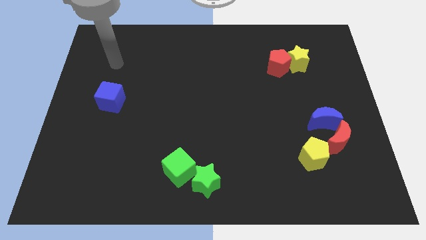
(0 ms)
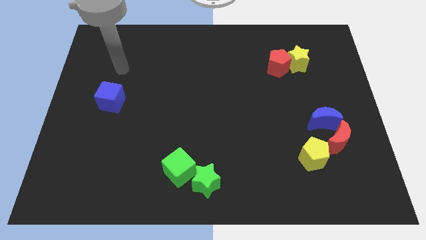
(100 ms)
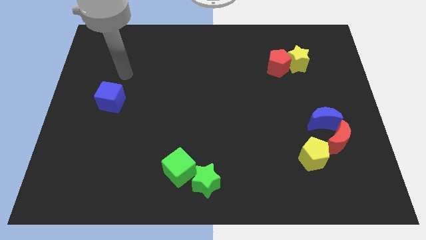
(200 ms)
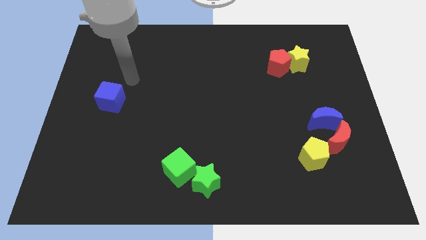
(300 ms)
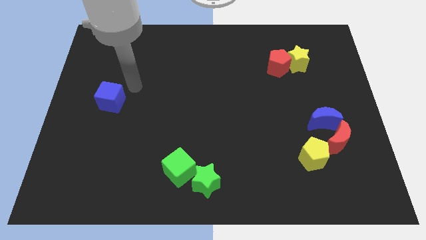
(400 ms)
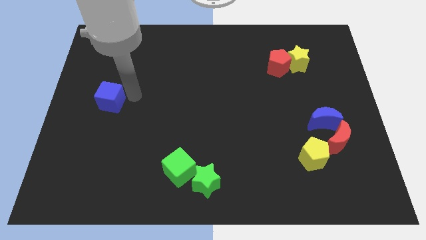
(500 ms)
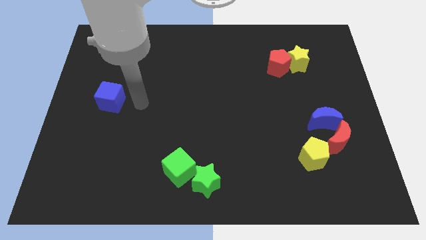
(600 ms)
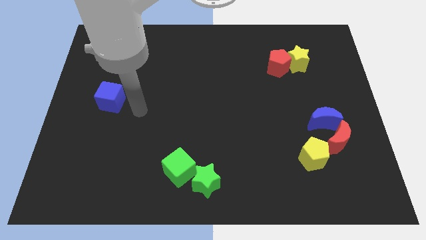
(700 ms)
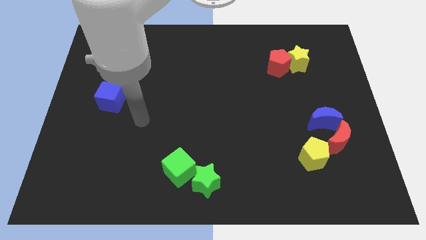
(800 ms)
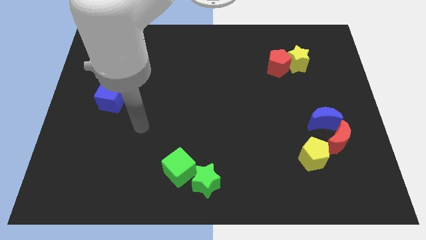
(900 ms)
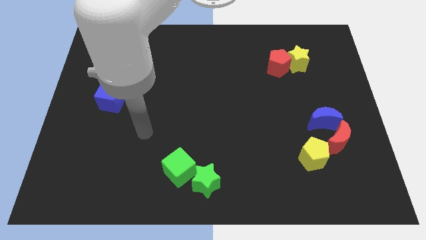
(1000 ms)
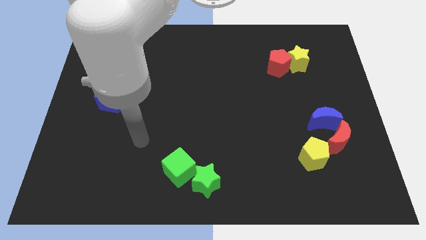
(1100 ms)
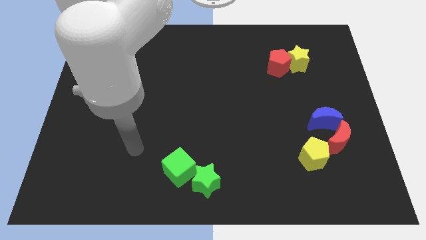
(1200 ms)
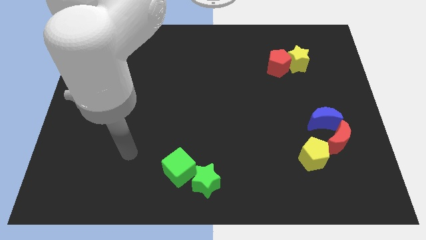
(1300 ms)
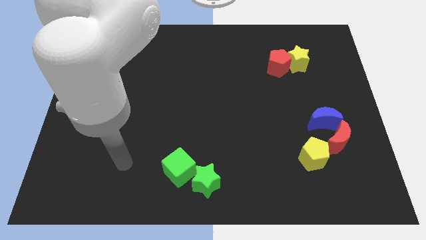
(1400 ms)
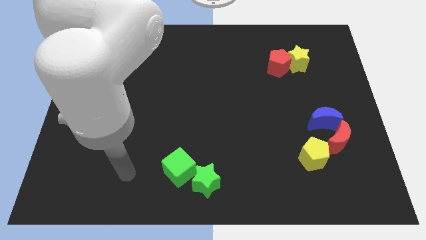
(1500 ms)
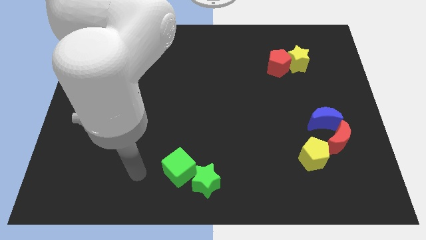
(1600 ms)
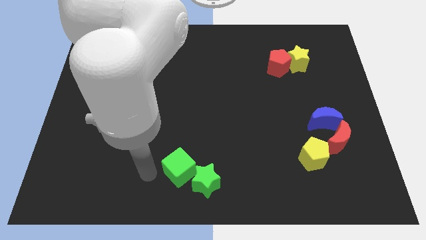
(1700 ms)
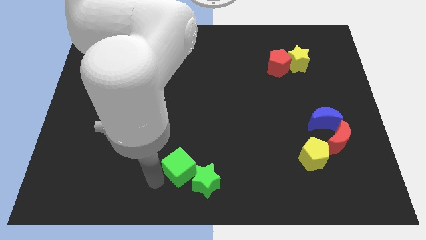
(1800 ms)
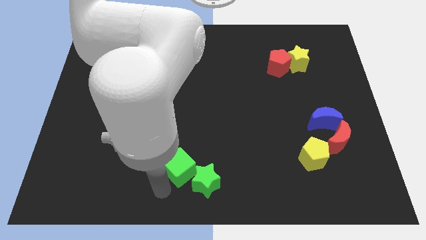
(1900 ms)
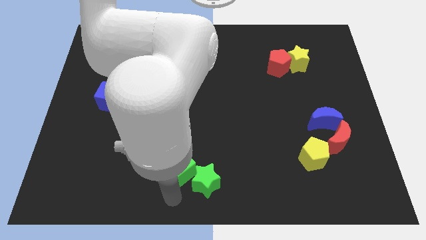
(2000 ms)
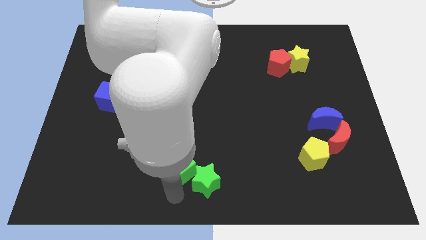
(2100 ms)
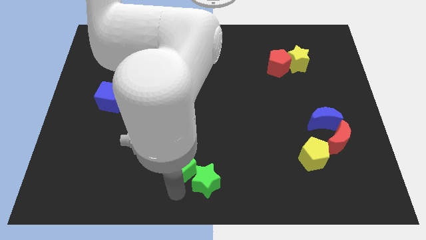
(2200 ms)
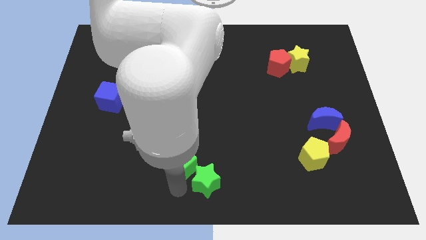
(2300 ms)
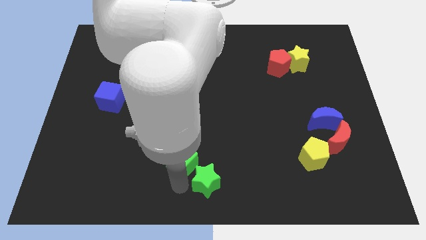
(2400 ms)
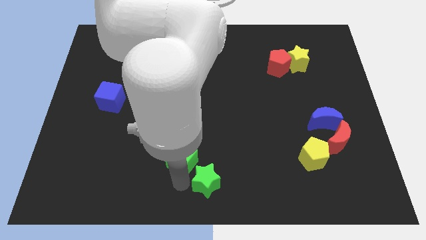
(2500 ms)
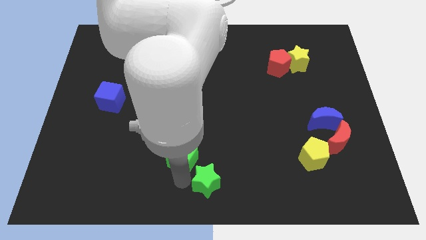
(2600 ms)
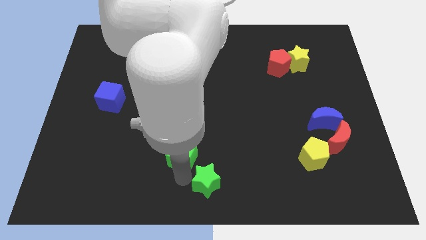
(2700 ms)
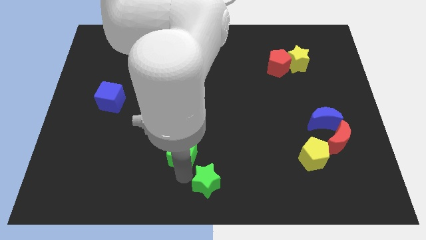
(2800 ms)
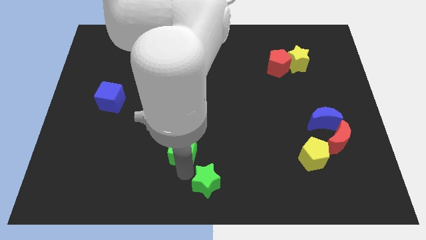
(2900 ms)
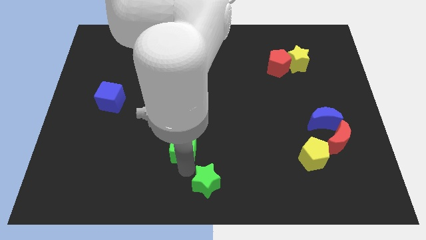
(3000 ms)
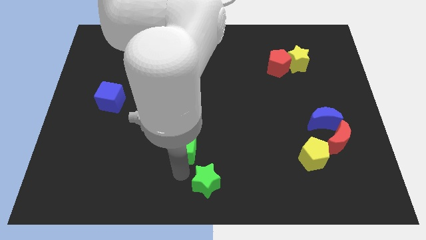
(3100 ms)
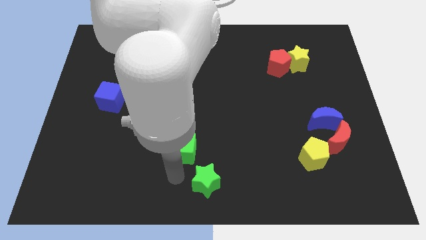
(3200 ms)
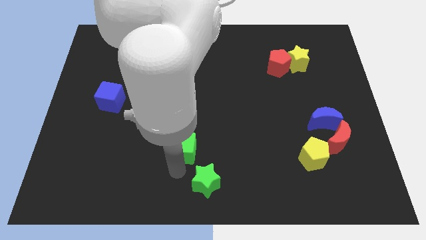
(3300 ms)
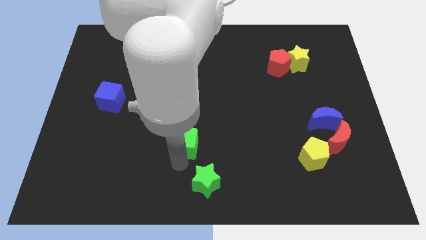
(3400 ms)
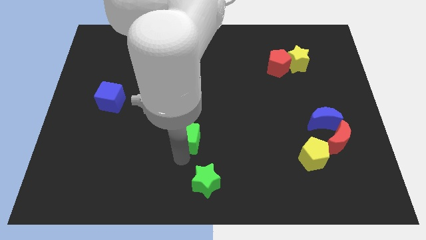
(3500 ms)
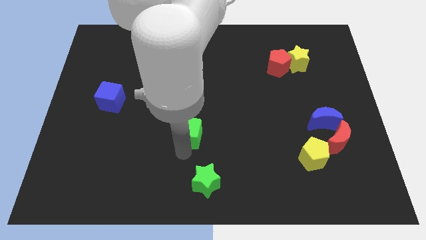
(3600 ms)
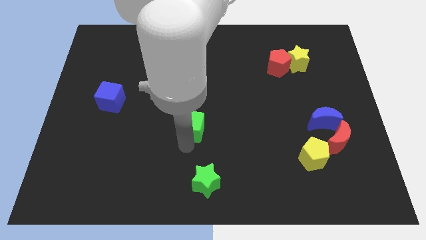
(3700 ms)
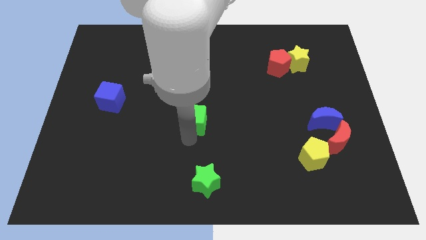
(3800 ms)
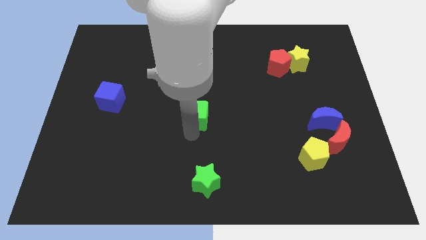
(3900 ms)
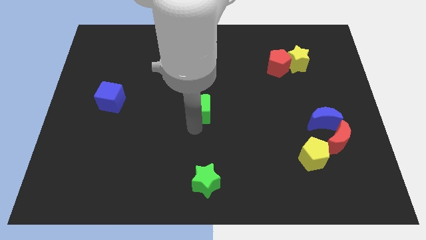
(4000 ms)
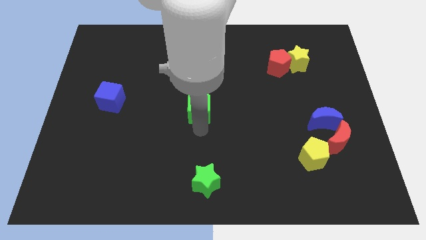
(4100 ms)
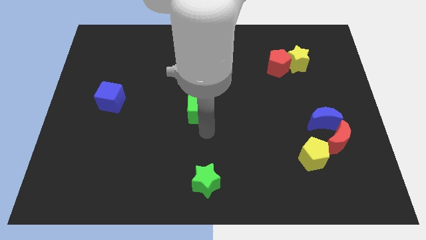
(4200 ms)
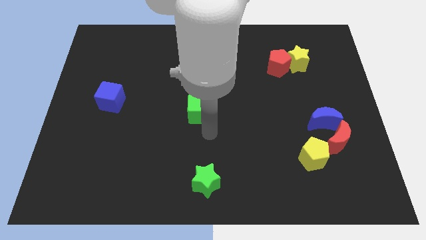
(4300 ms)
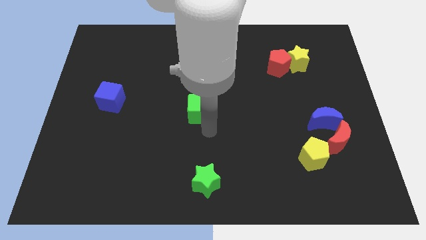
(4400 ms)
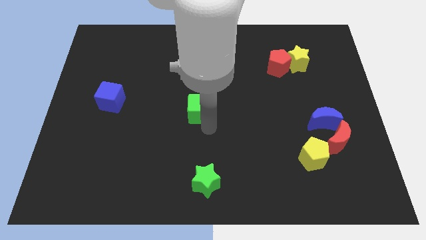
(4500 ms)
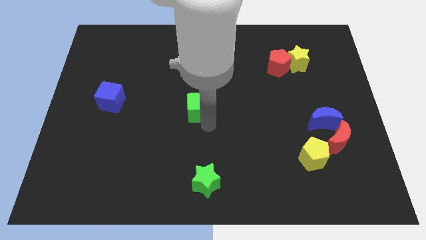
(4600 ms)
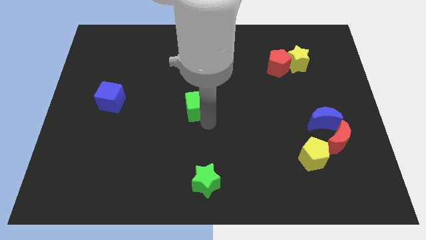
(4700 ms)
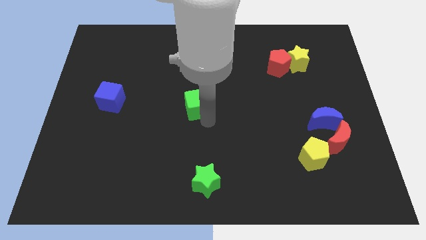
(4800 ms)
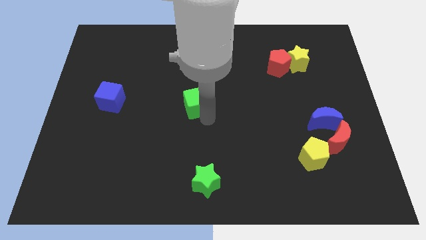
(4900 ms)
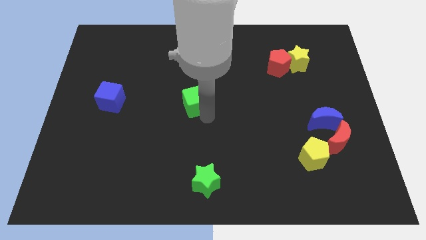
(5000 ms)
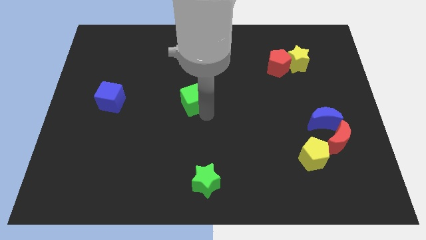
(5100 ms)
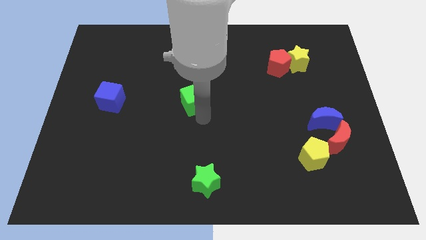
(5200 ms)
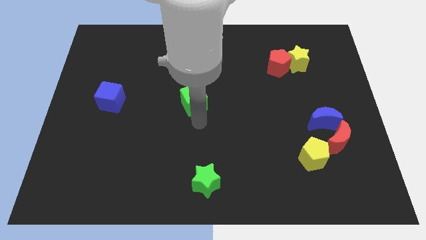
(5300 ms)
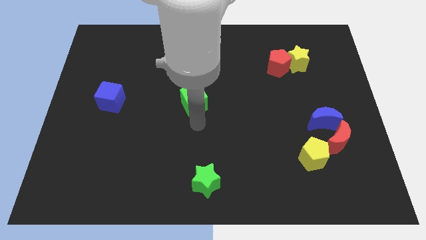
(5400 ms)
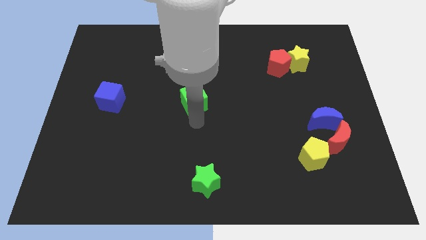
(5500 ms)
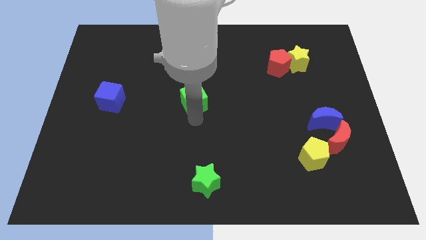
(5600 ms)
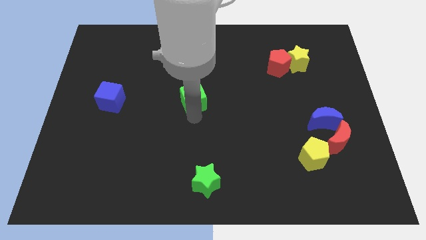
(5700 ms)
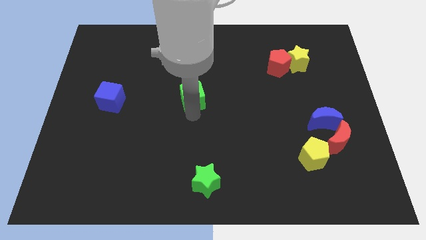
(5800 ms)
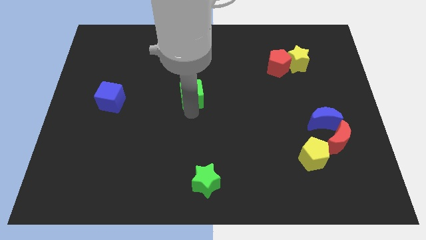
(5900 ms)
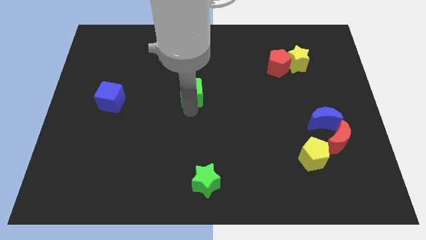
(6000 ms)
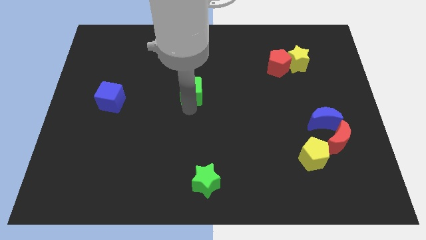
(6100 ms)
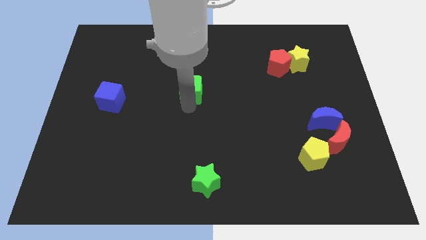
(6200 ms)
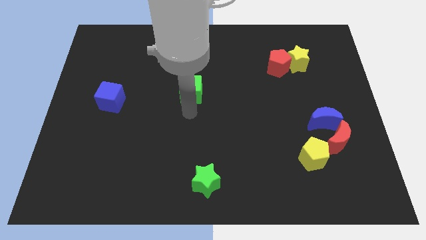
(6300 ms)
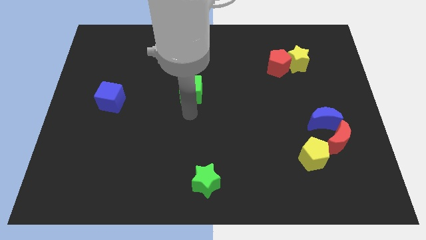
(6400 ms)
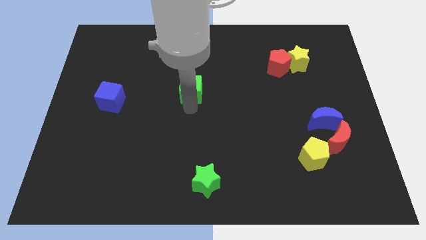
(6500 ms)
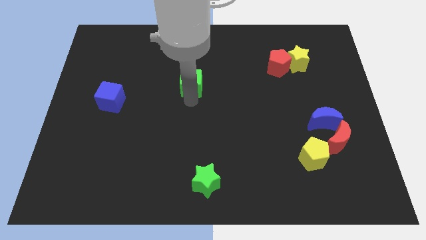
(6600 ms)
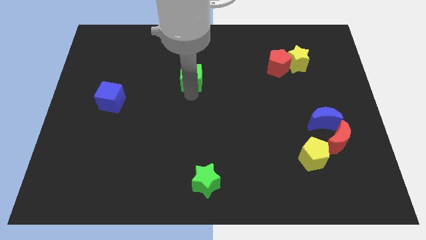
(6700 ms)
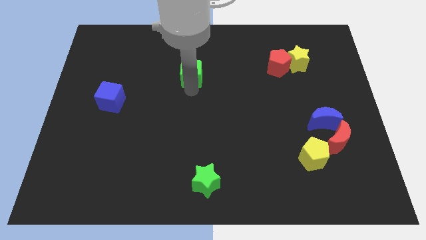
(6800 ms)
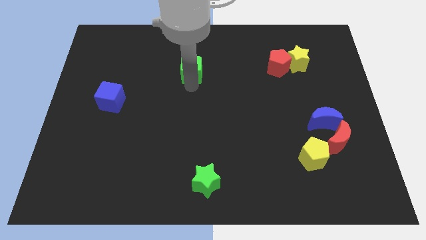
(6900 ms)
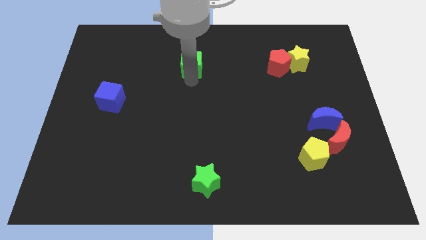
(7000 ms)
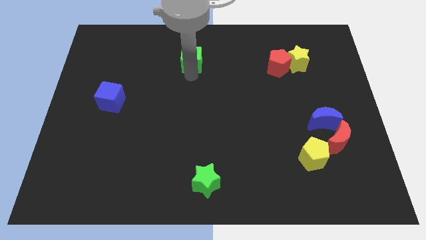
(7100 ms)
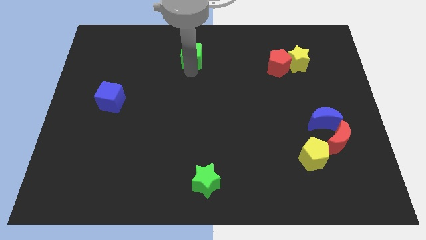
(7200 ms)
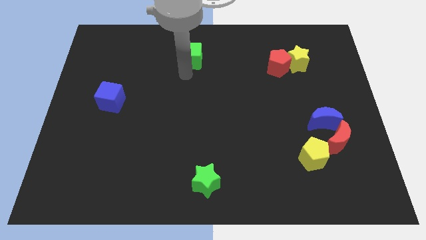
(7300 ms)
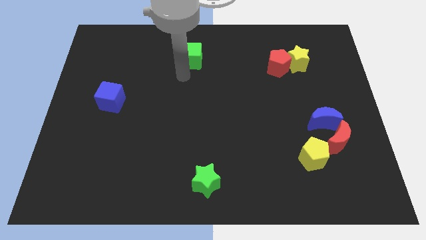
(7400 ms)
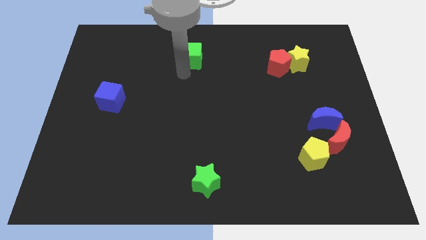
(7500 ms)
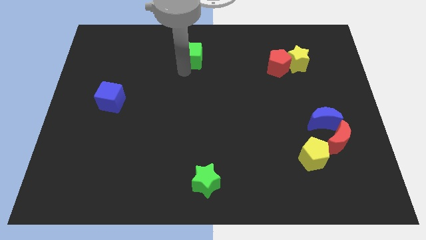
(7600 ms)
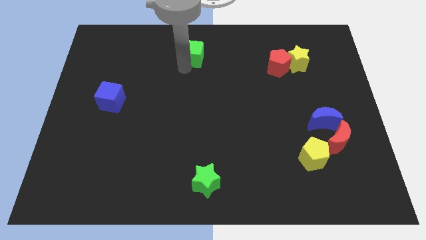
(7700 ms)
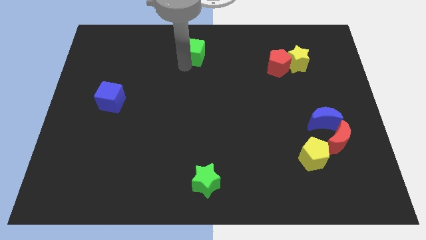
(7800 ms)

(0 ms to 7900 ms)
put the green cube to the top side
